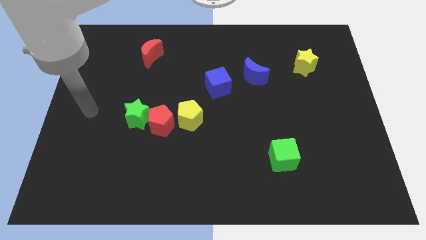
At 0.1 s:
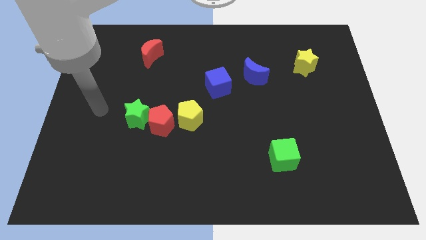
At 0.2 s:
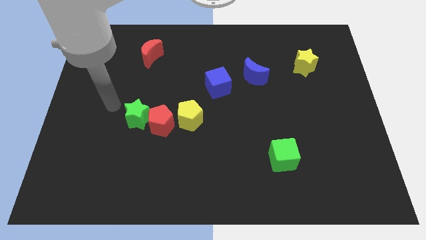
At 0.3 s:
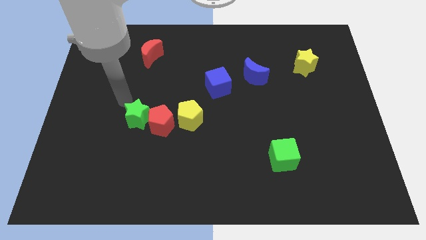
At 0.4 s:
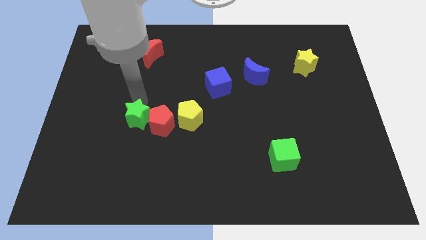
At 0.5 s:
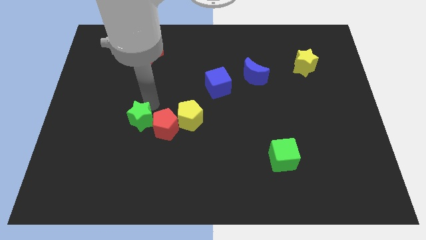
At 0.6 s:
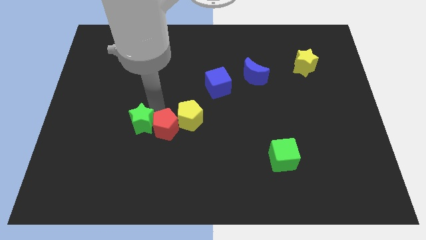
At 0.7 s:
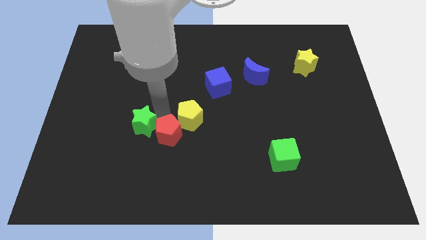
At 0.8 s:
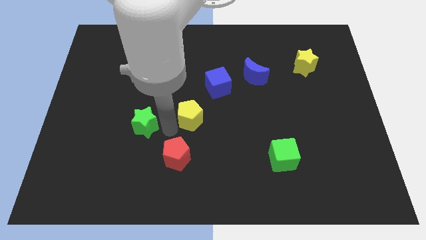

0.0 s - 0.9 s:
pull the green star apart from the red pentagon

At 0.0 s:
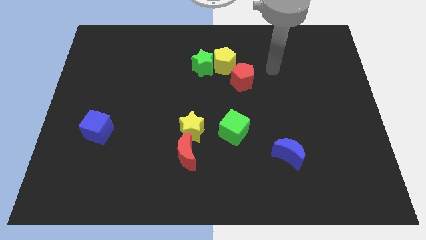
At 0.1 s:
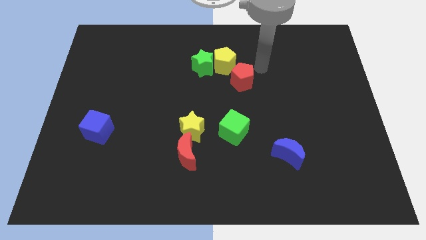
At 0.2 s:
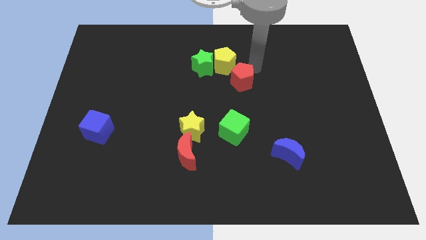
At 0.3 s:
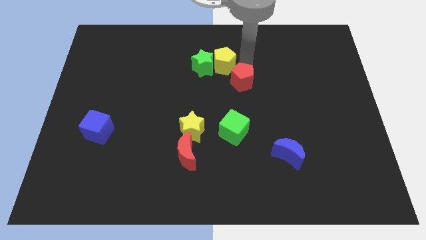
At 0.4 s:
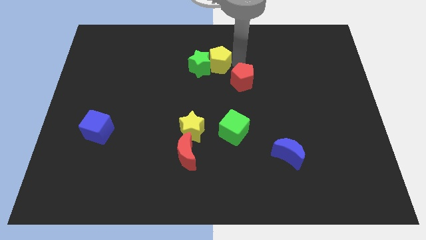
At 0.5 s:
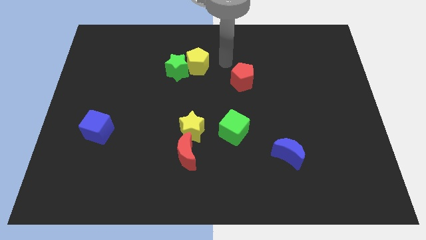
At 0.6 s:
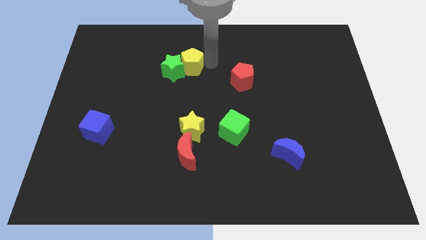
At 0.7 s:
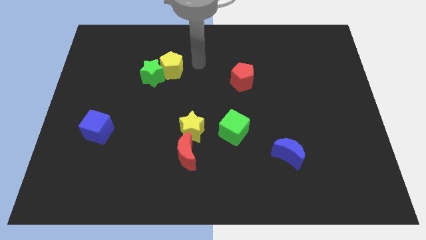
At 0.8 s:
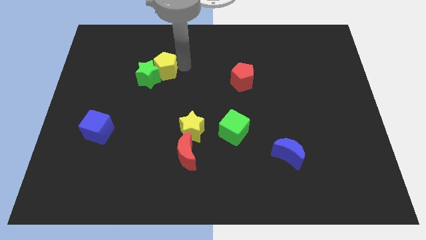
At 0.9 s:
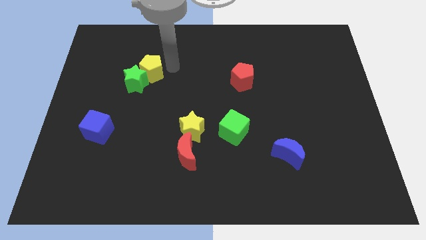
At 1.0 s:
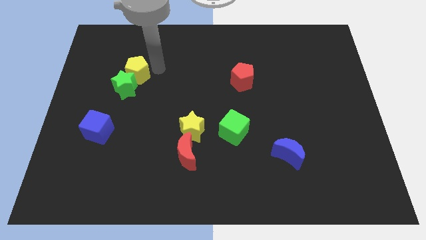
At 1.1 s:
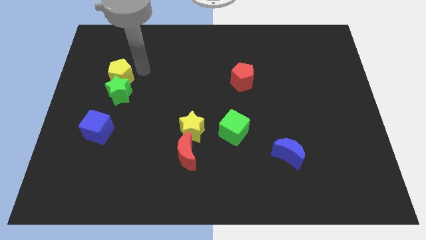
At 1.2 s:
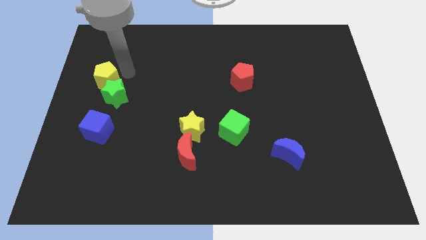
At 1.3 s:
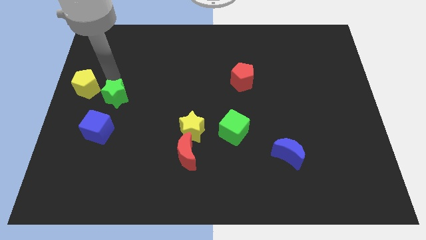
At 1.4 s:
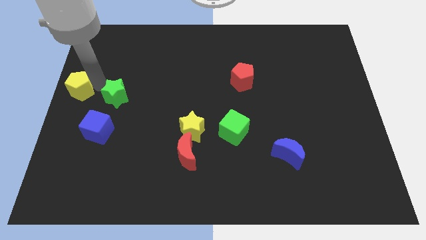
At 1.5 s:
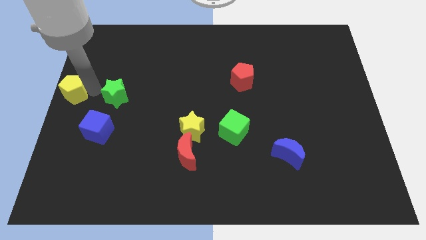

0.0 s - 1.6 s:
pull the green star apart from the yellow pentagon

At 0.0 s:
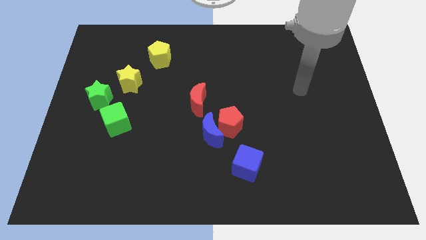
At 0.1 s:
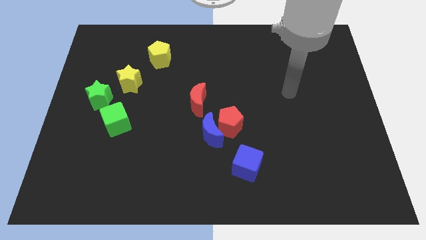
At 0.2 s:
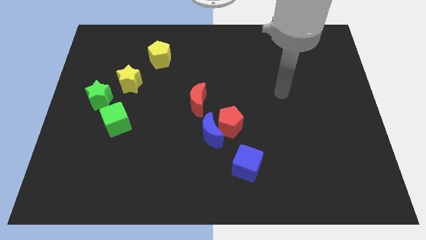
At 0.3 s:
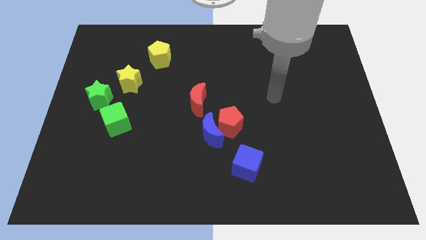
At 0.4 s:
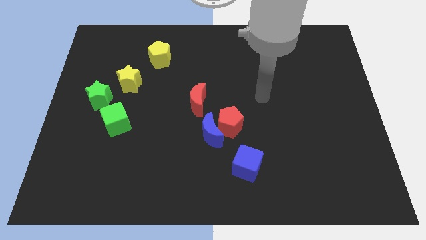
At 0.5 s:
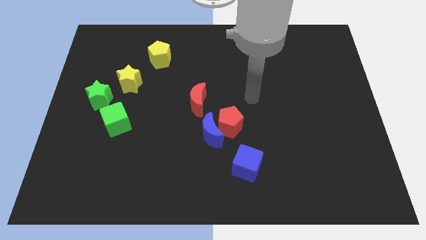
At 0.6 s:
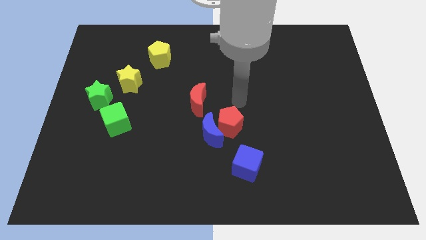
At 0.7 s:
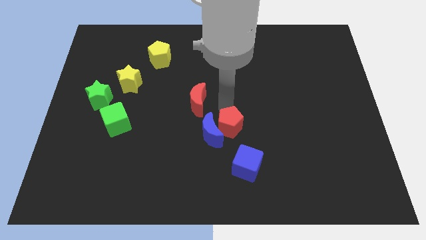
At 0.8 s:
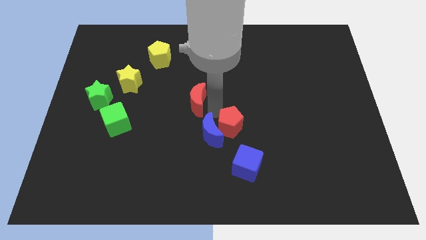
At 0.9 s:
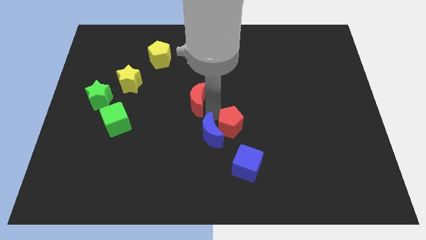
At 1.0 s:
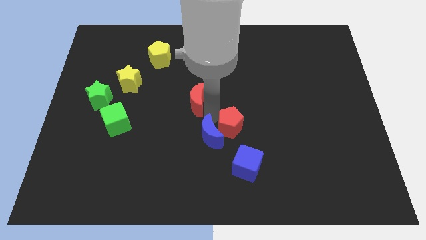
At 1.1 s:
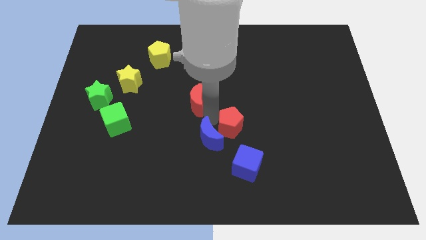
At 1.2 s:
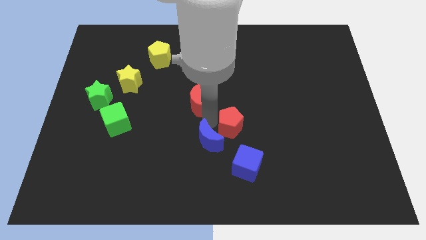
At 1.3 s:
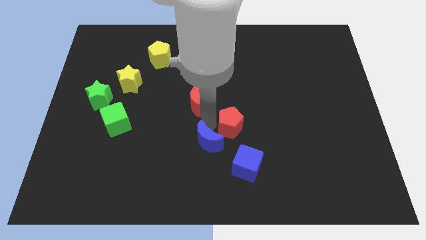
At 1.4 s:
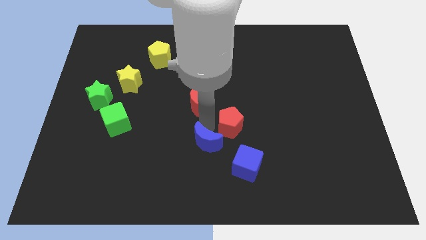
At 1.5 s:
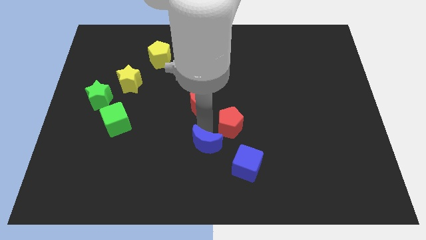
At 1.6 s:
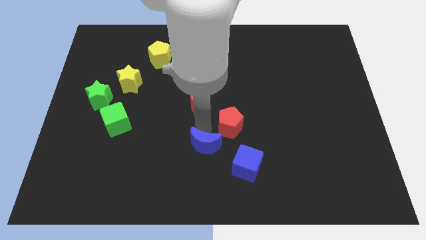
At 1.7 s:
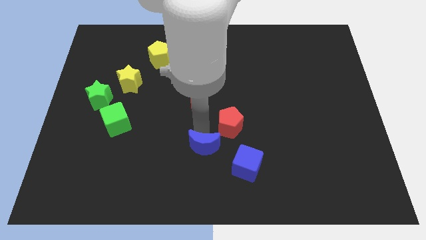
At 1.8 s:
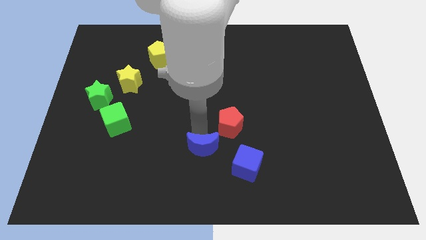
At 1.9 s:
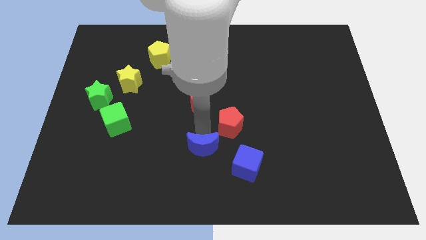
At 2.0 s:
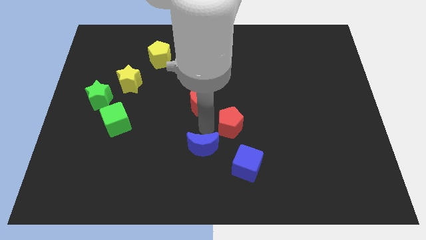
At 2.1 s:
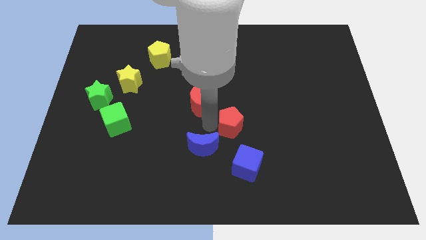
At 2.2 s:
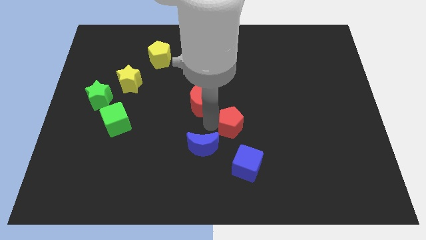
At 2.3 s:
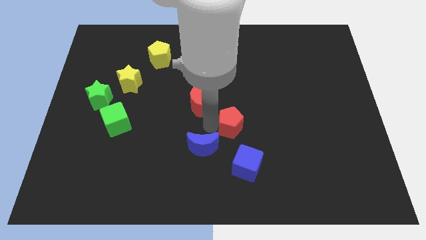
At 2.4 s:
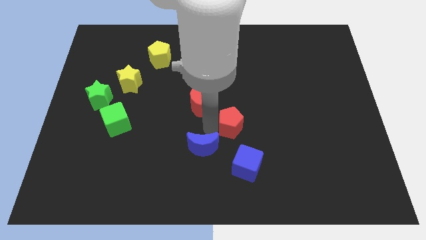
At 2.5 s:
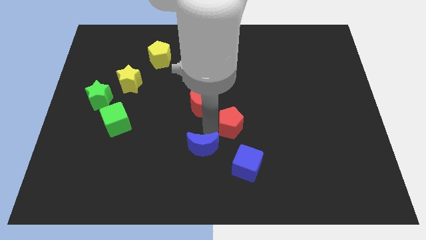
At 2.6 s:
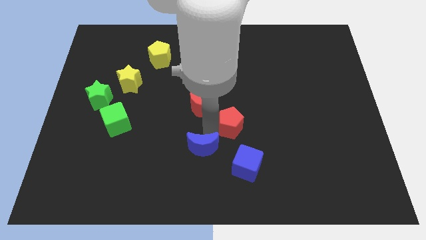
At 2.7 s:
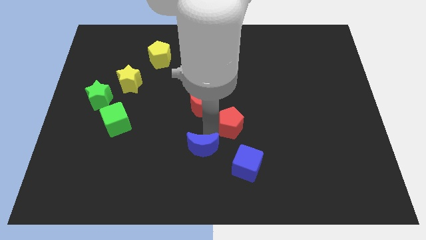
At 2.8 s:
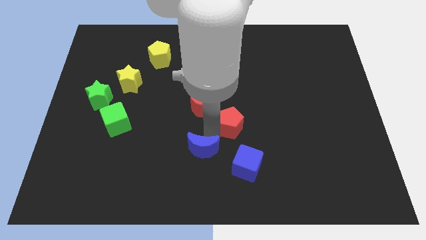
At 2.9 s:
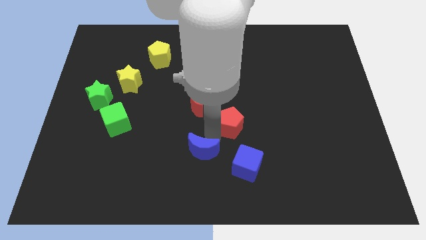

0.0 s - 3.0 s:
separate the blue moon from the red pentagon and red moon

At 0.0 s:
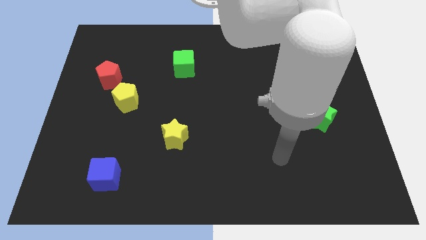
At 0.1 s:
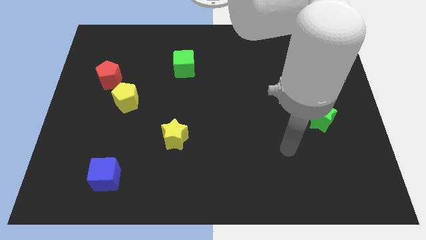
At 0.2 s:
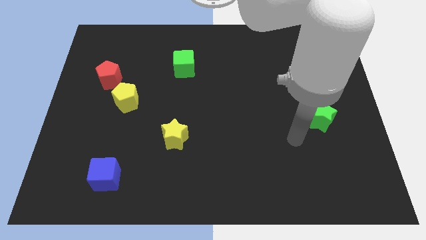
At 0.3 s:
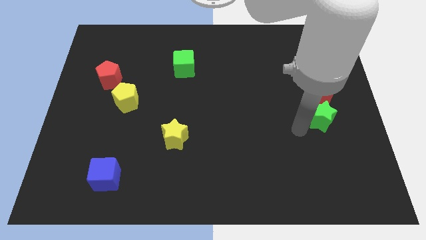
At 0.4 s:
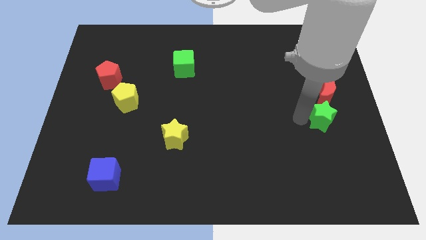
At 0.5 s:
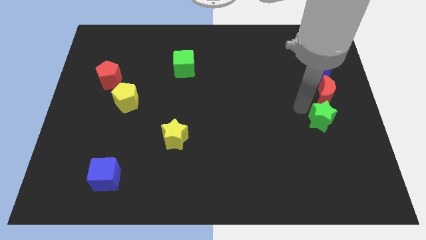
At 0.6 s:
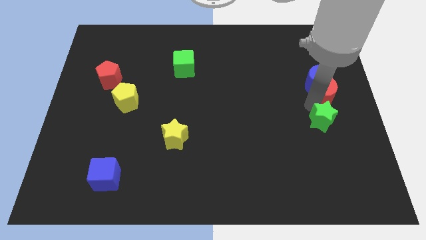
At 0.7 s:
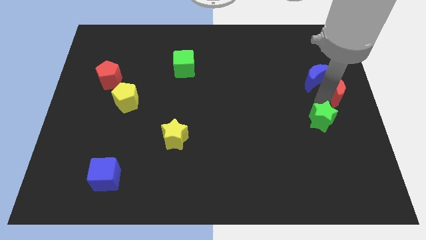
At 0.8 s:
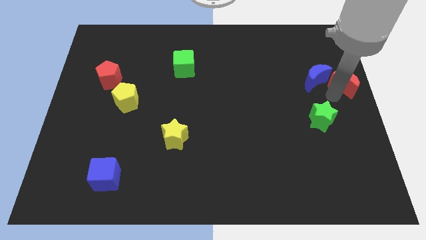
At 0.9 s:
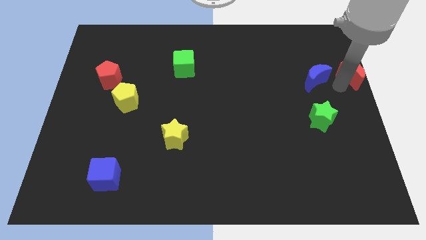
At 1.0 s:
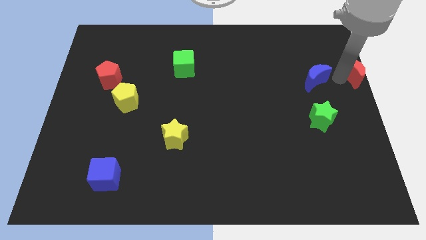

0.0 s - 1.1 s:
move the blue moon away from the red moon

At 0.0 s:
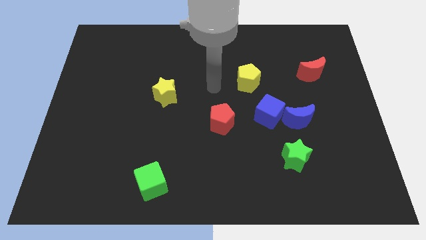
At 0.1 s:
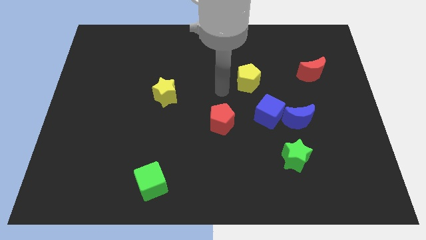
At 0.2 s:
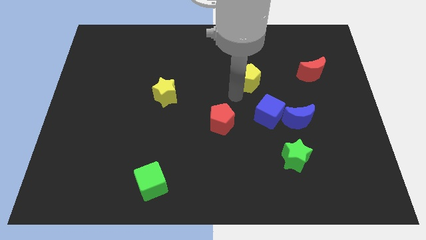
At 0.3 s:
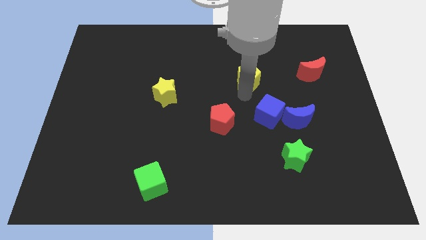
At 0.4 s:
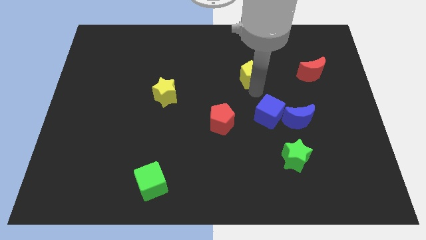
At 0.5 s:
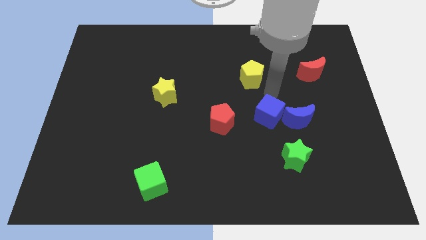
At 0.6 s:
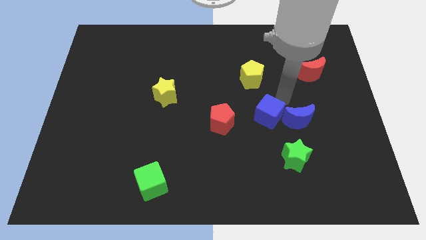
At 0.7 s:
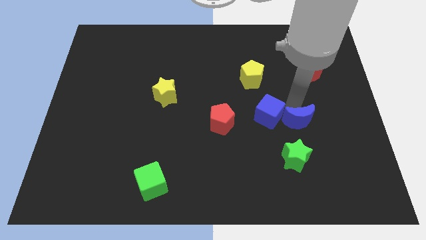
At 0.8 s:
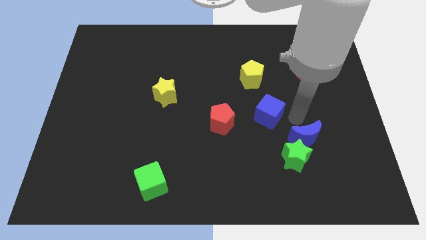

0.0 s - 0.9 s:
separate the blue cube from the blue moon

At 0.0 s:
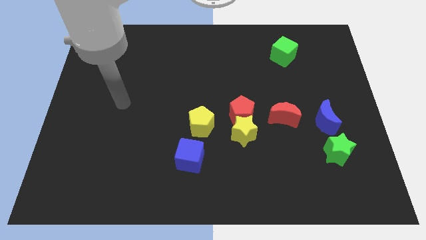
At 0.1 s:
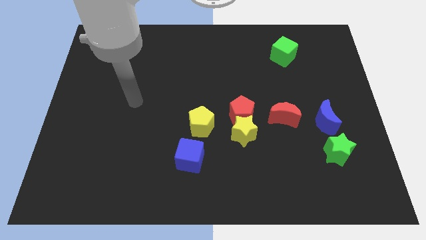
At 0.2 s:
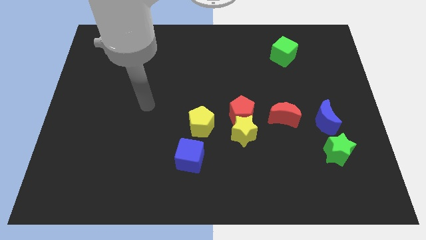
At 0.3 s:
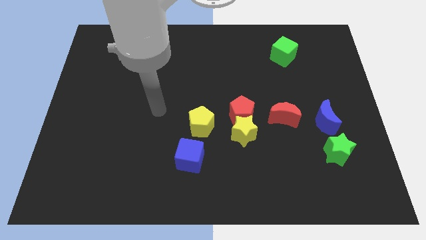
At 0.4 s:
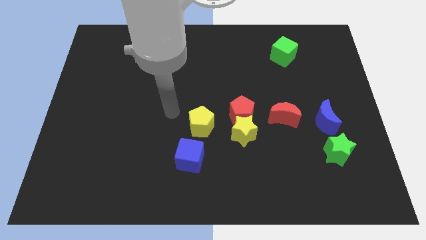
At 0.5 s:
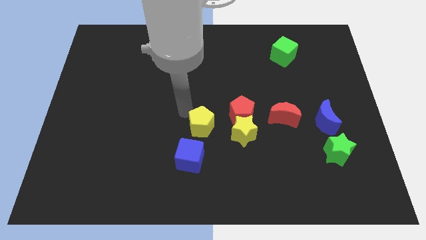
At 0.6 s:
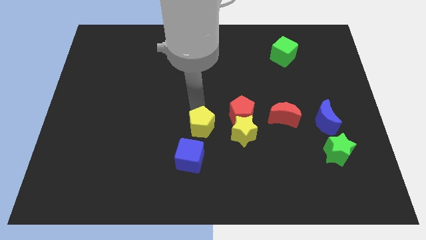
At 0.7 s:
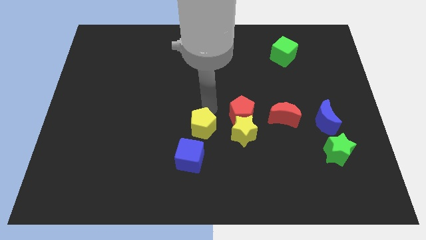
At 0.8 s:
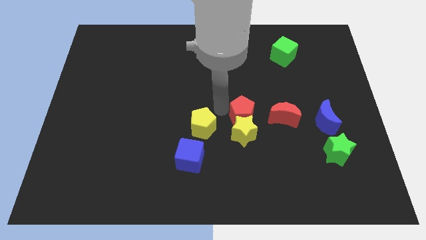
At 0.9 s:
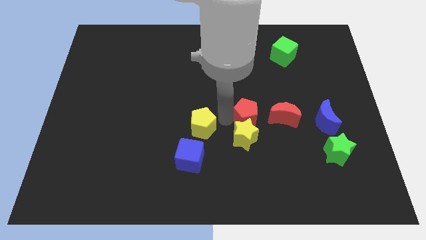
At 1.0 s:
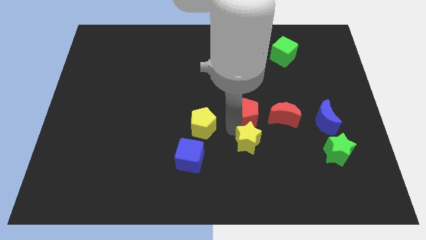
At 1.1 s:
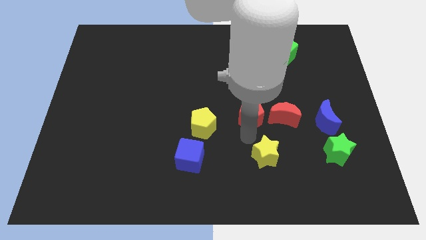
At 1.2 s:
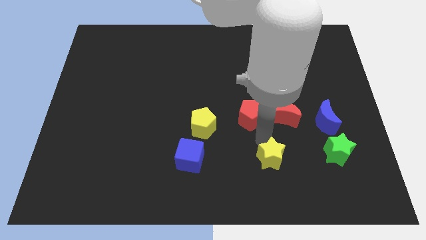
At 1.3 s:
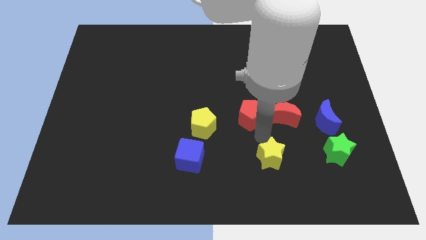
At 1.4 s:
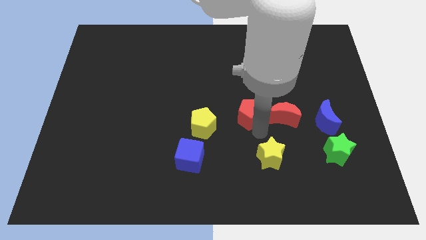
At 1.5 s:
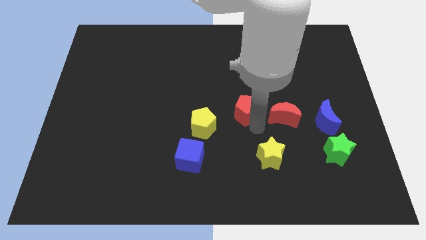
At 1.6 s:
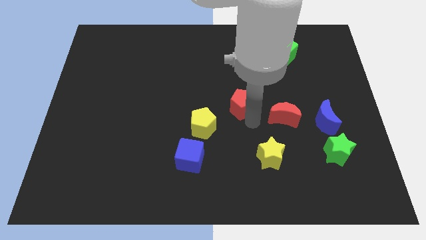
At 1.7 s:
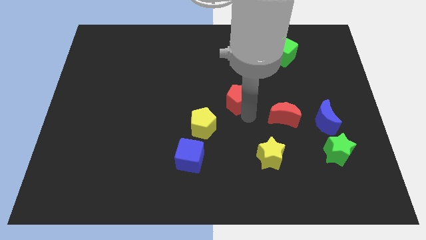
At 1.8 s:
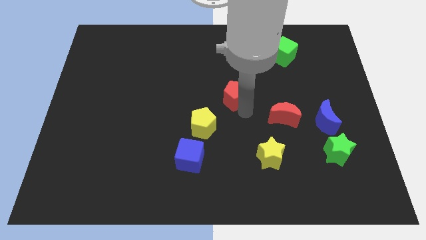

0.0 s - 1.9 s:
separate the red pentagon from the group of blocks
